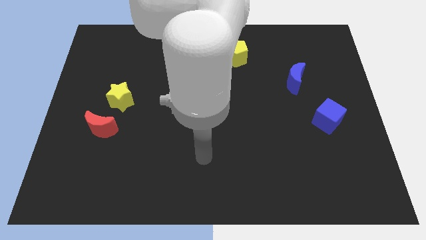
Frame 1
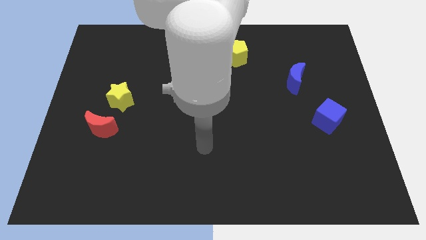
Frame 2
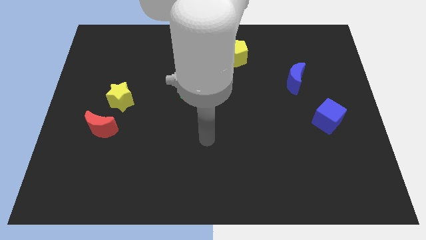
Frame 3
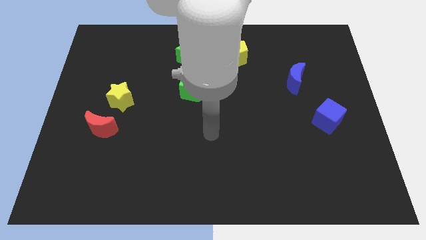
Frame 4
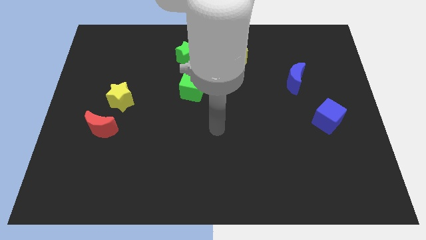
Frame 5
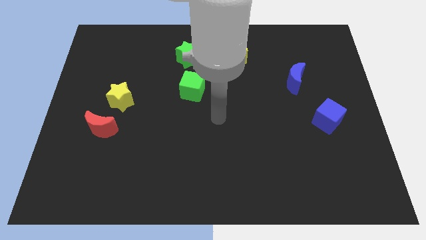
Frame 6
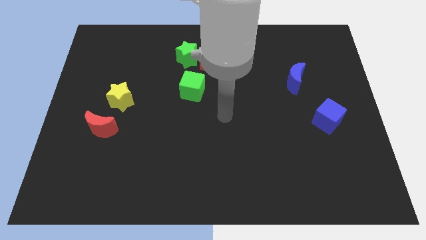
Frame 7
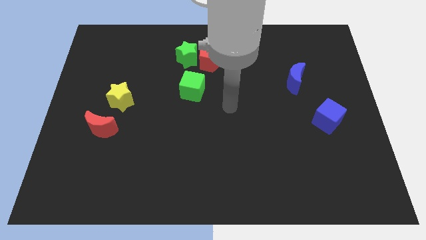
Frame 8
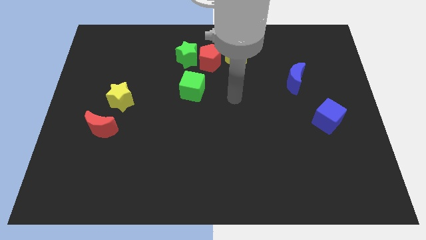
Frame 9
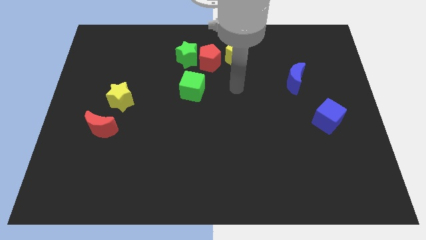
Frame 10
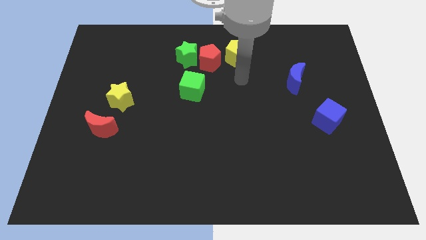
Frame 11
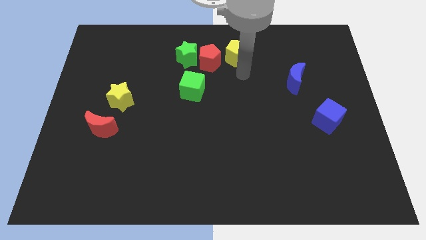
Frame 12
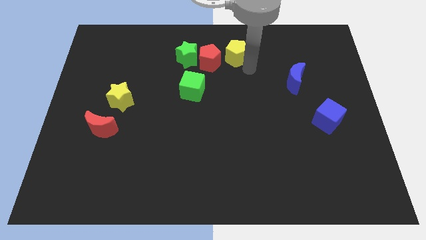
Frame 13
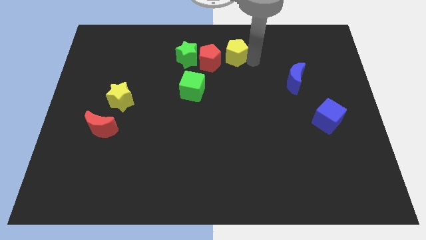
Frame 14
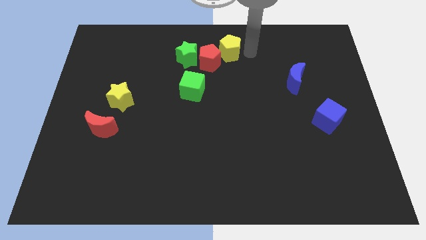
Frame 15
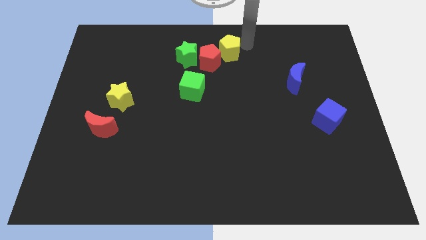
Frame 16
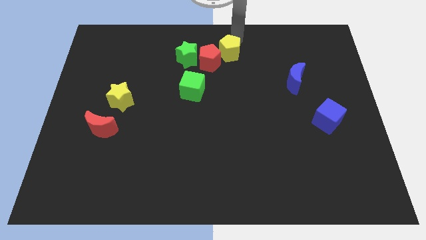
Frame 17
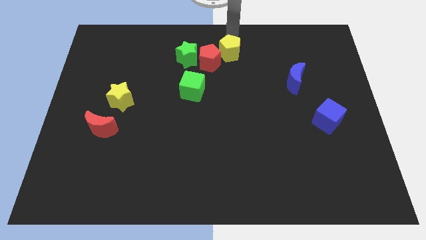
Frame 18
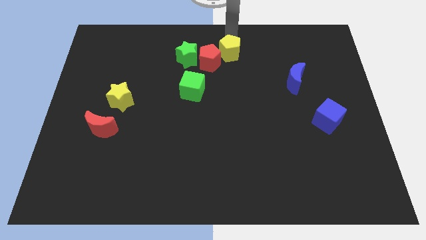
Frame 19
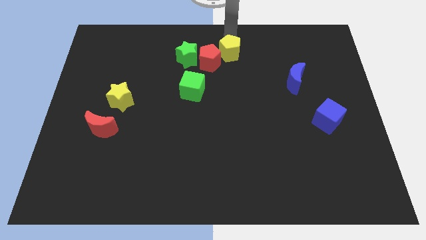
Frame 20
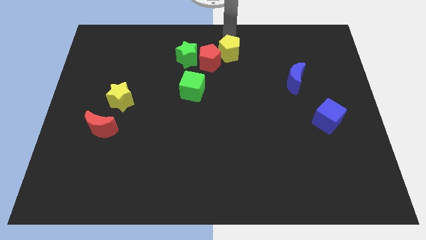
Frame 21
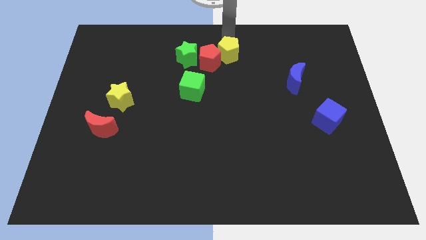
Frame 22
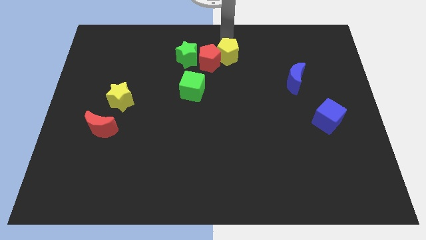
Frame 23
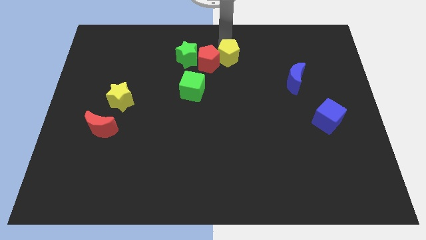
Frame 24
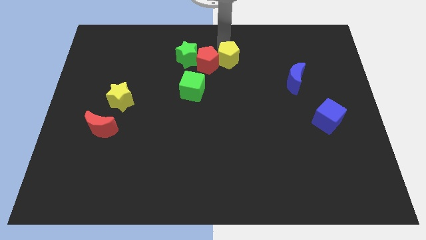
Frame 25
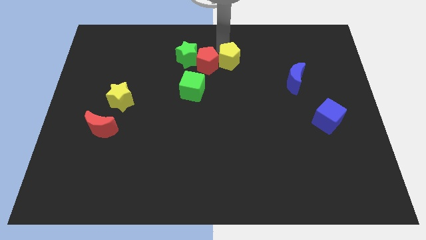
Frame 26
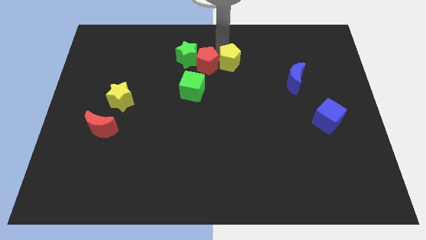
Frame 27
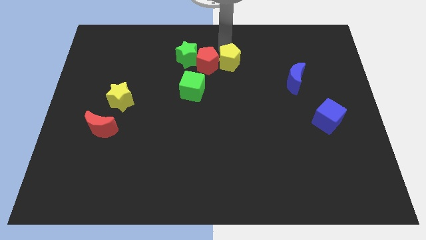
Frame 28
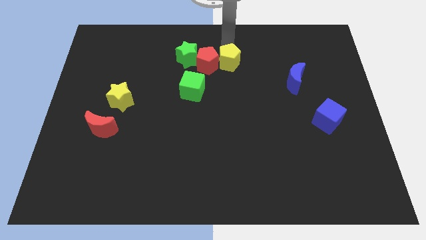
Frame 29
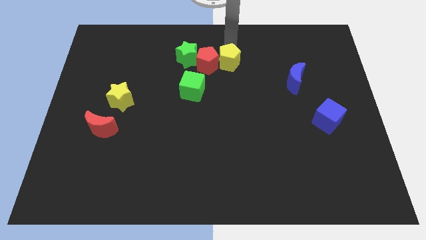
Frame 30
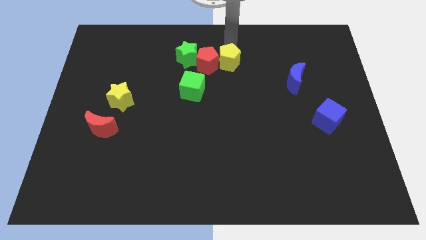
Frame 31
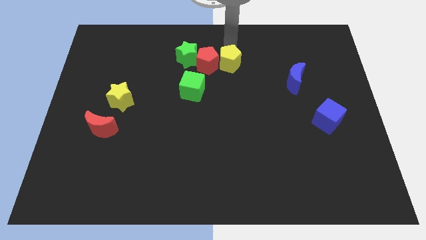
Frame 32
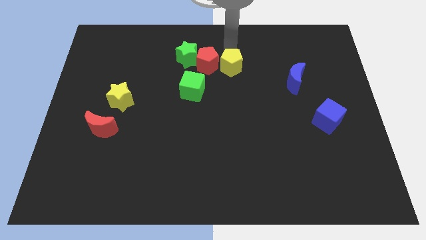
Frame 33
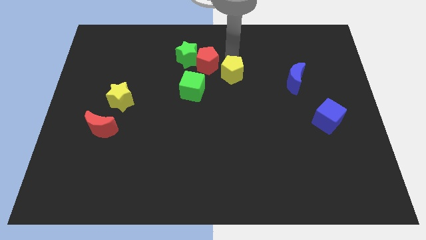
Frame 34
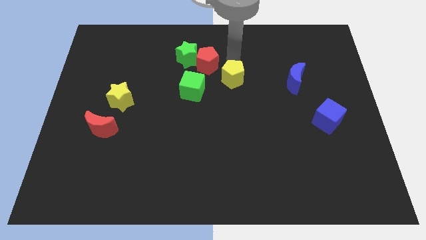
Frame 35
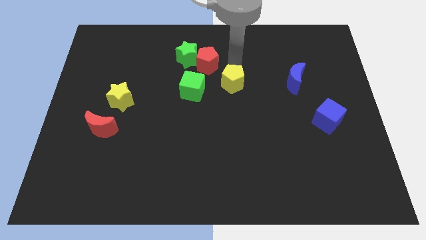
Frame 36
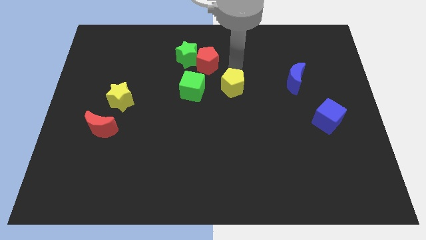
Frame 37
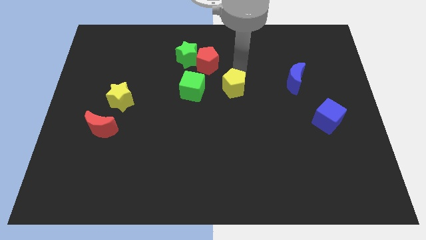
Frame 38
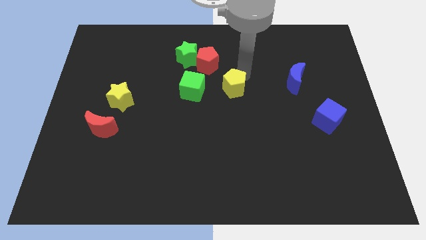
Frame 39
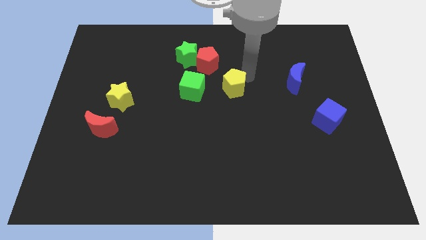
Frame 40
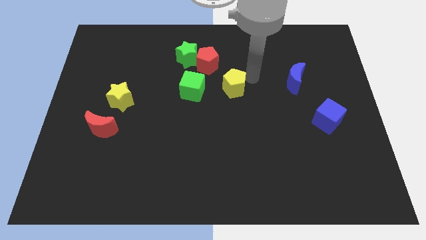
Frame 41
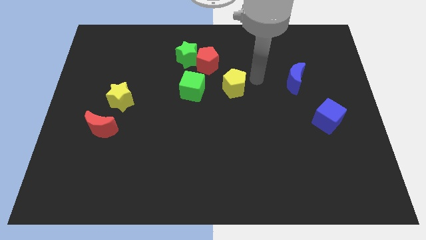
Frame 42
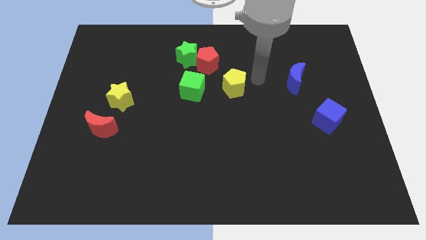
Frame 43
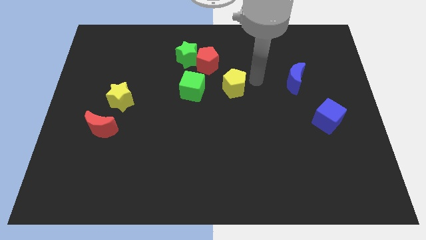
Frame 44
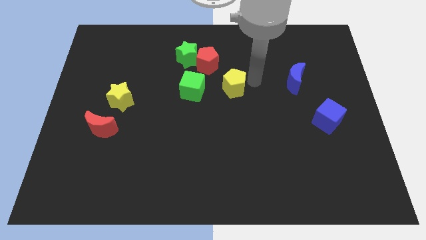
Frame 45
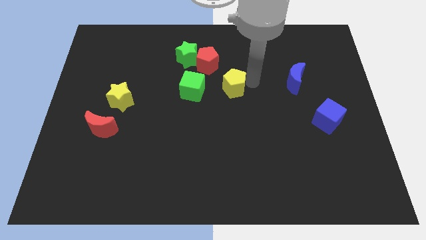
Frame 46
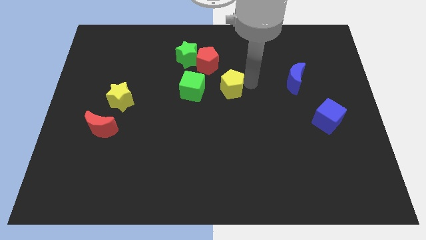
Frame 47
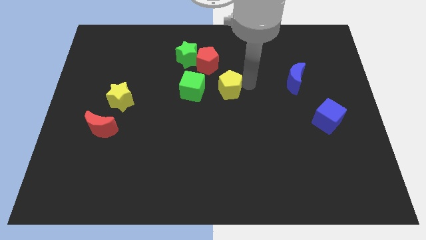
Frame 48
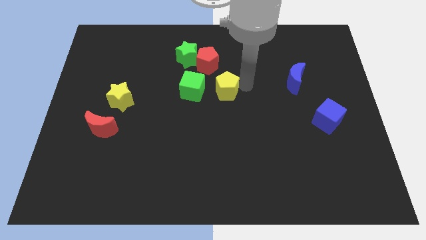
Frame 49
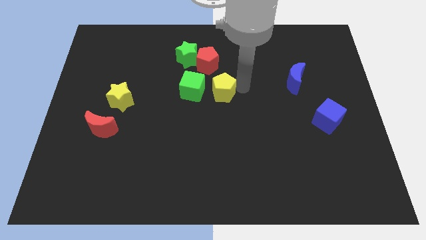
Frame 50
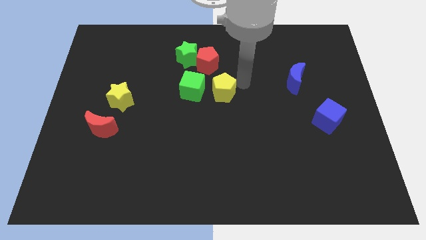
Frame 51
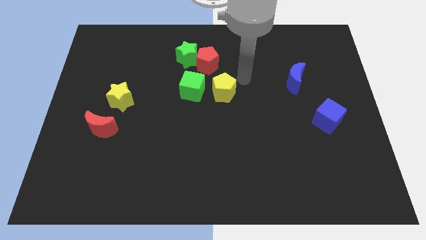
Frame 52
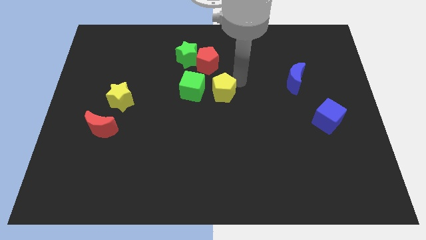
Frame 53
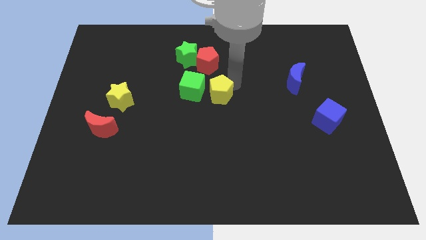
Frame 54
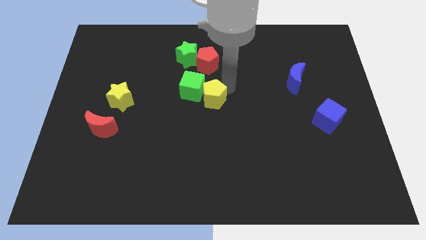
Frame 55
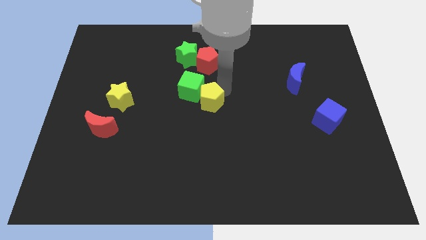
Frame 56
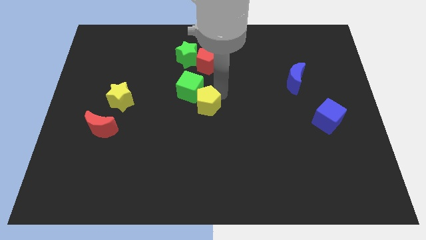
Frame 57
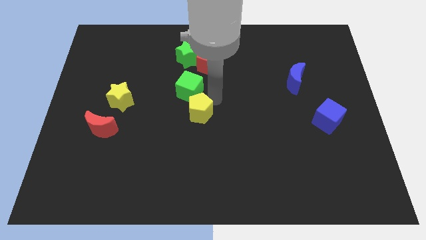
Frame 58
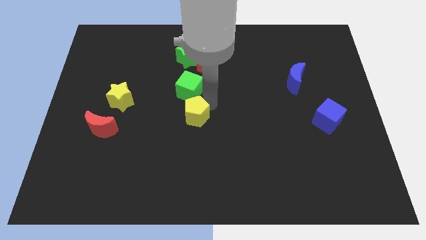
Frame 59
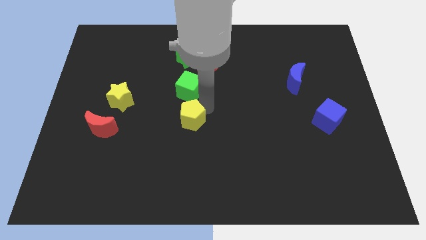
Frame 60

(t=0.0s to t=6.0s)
push the yellow pentagon downwards and to the left

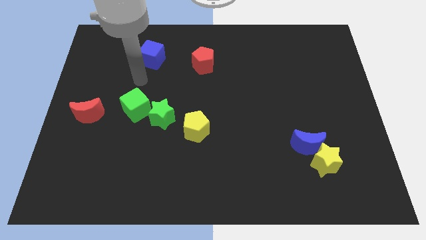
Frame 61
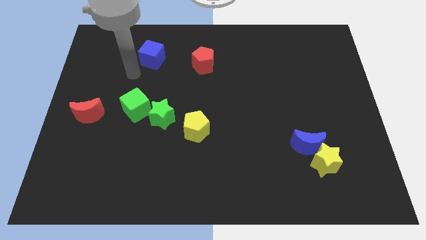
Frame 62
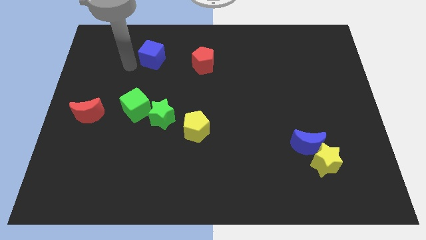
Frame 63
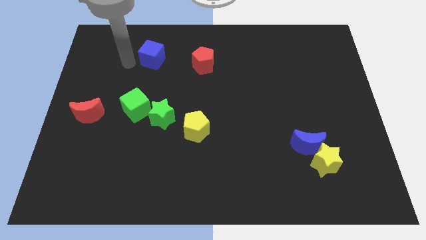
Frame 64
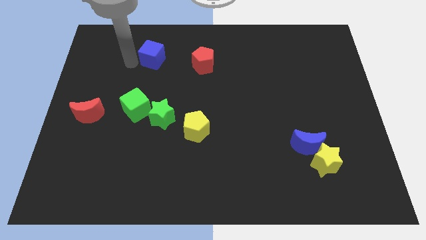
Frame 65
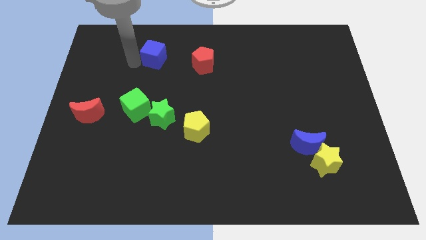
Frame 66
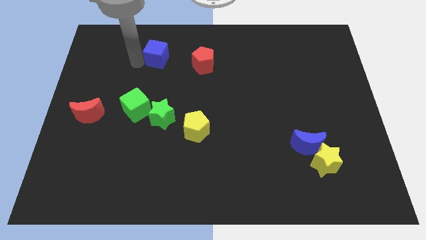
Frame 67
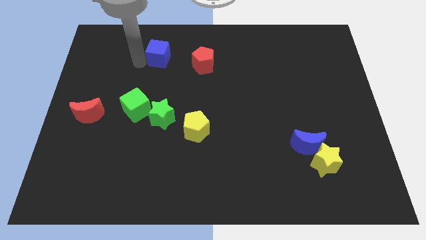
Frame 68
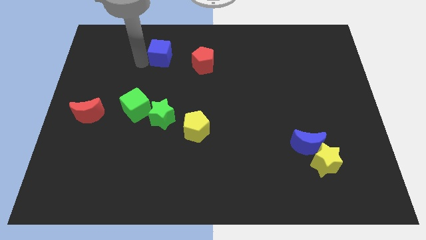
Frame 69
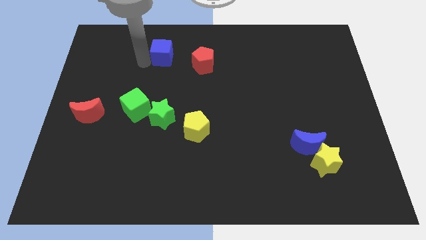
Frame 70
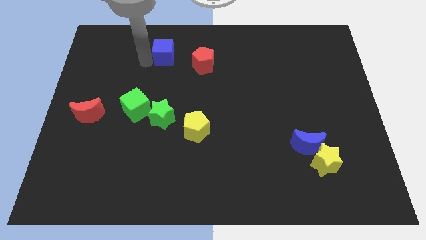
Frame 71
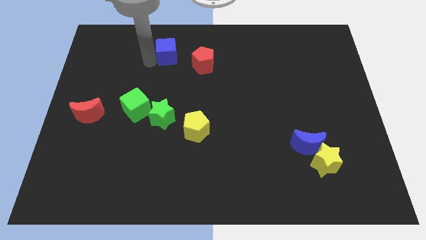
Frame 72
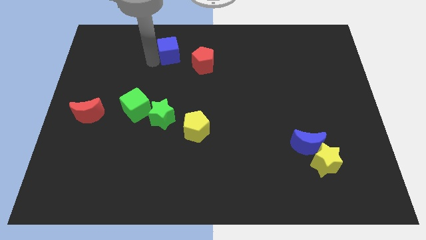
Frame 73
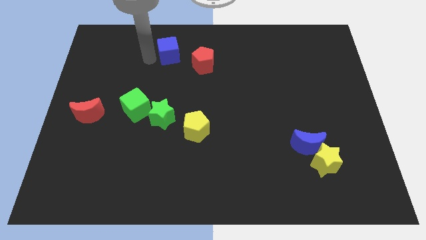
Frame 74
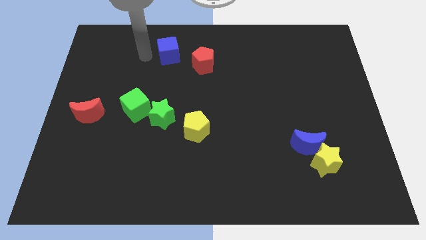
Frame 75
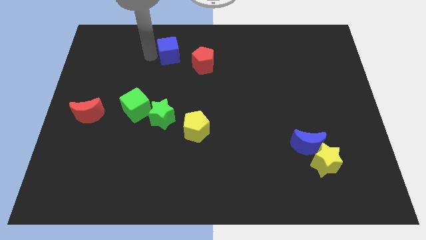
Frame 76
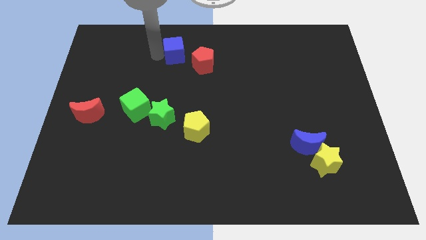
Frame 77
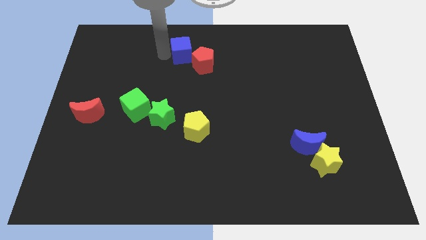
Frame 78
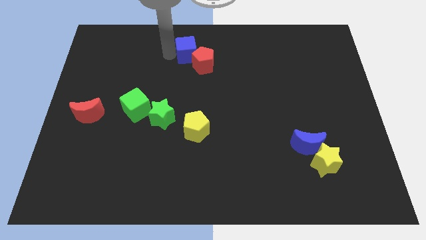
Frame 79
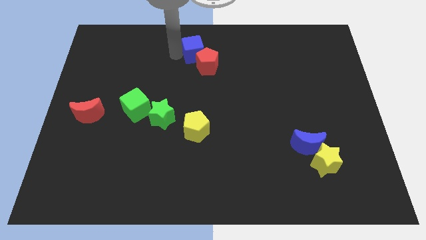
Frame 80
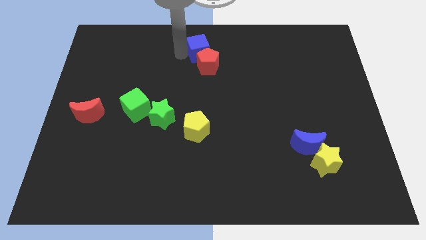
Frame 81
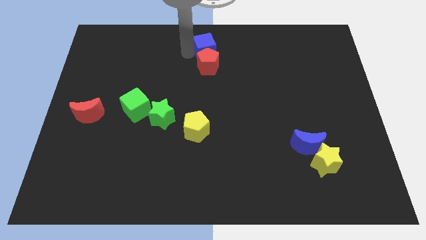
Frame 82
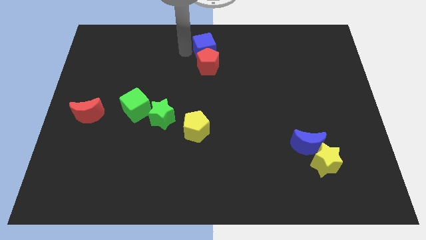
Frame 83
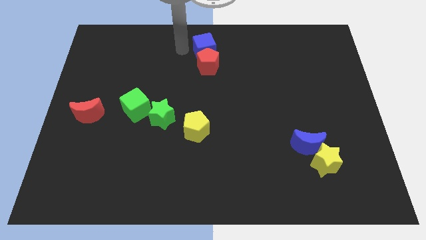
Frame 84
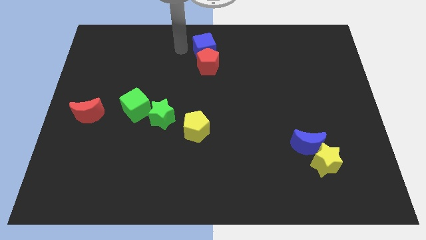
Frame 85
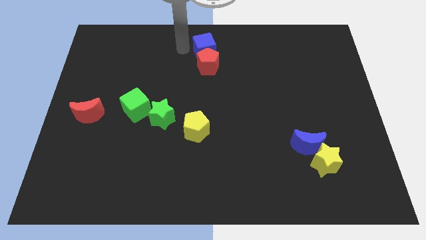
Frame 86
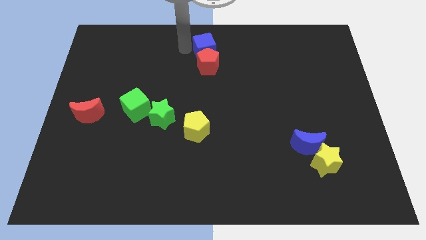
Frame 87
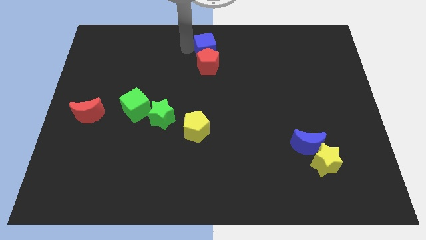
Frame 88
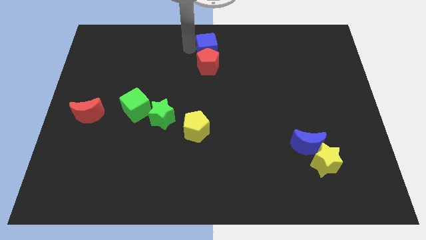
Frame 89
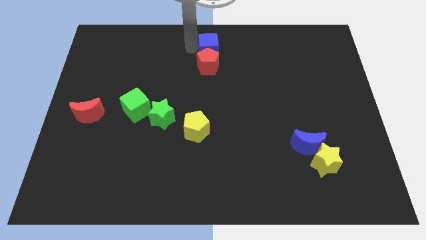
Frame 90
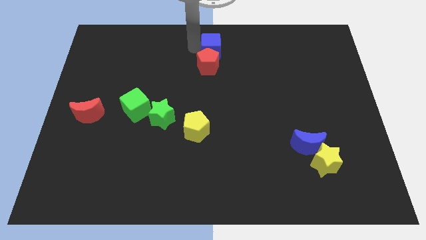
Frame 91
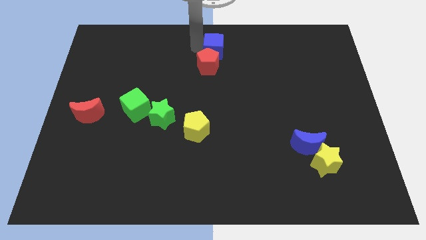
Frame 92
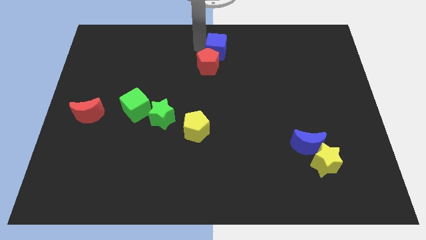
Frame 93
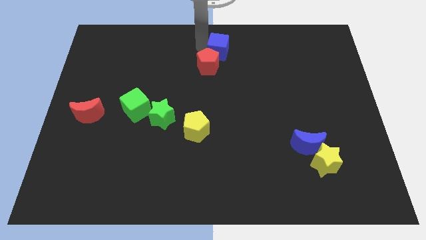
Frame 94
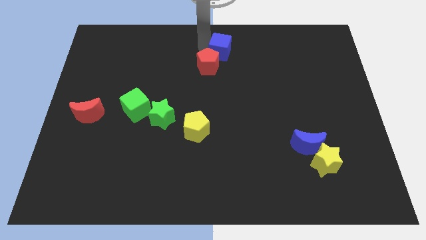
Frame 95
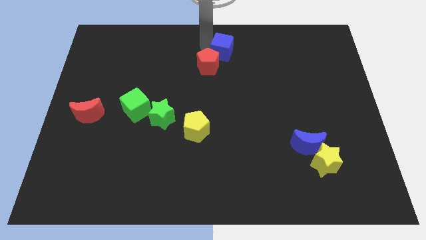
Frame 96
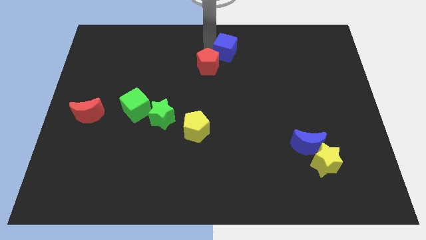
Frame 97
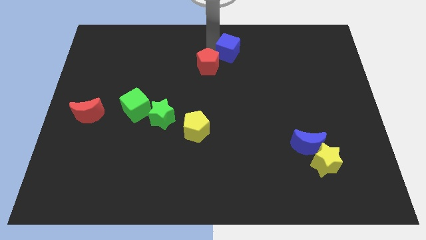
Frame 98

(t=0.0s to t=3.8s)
slide the blue cube to the right
